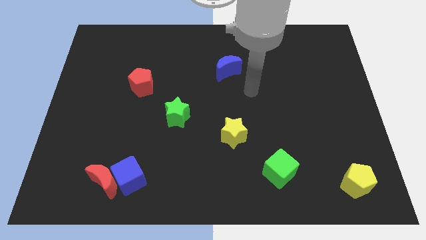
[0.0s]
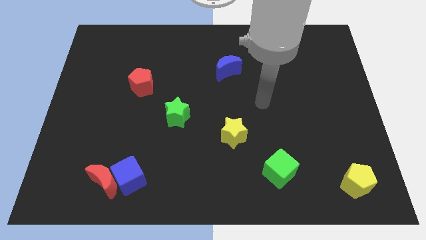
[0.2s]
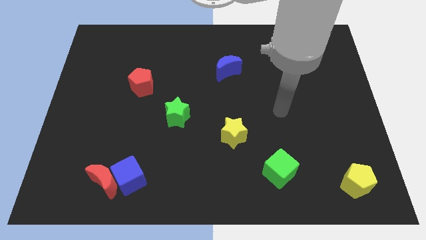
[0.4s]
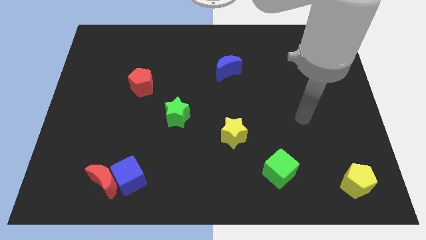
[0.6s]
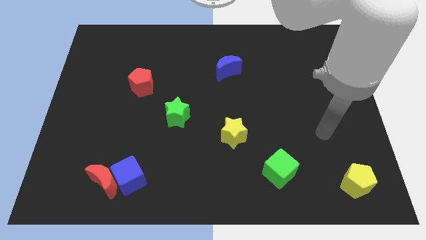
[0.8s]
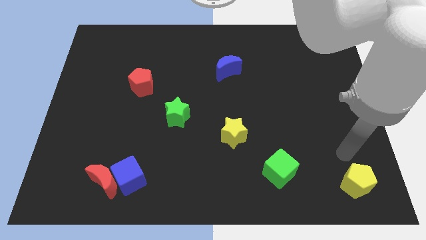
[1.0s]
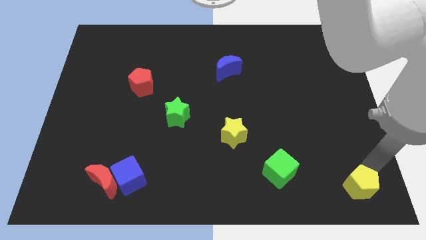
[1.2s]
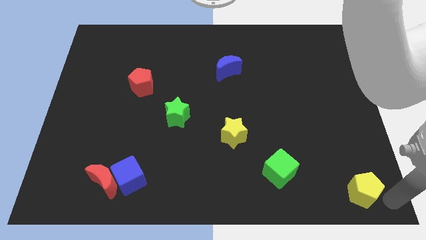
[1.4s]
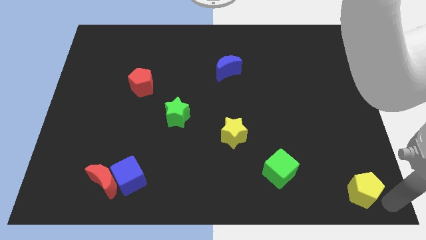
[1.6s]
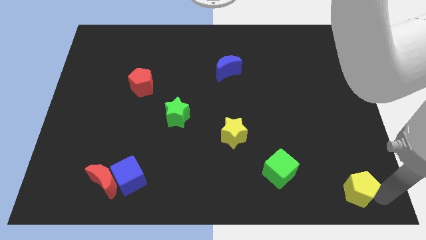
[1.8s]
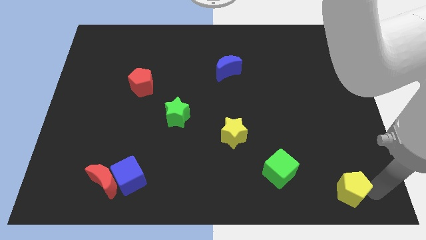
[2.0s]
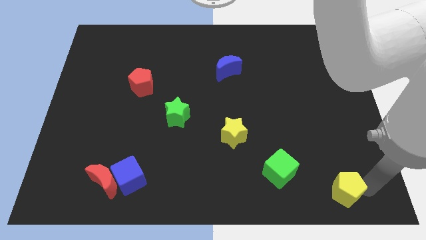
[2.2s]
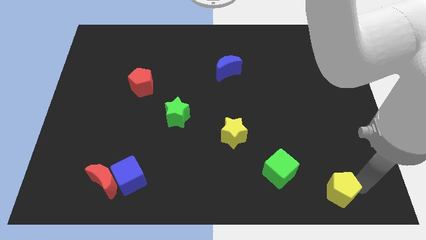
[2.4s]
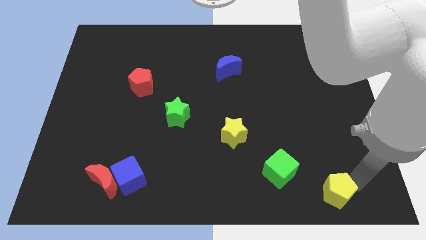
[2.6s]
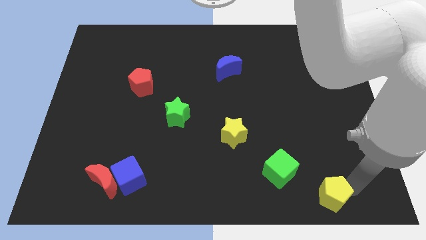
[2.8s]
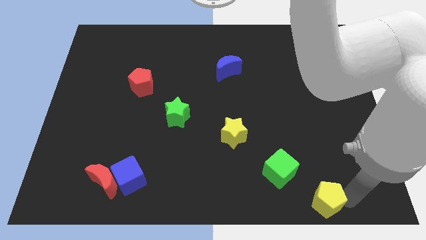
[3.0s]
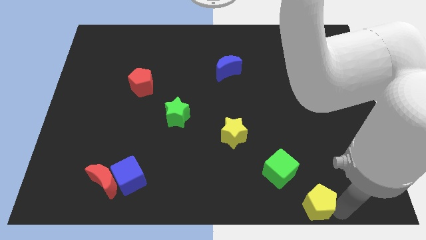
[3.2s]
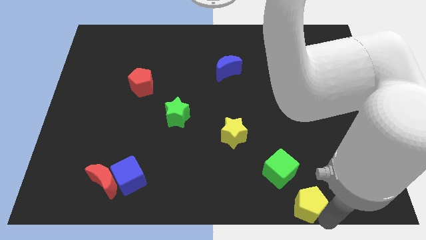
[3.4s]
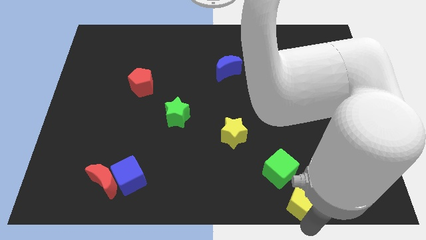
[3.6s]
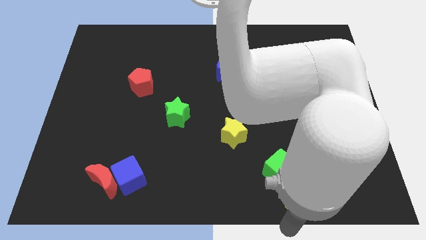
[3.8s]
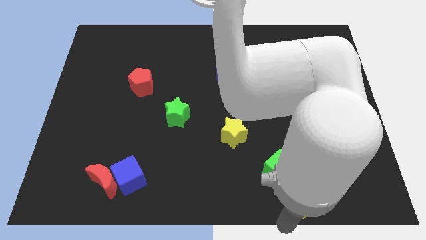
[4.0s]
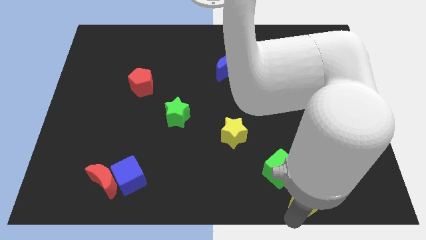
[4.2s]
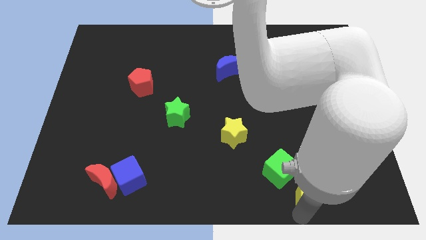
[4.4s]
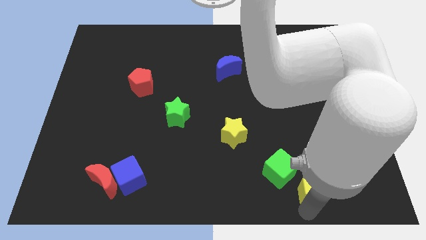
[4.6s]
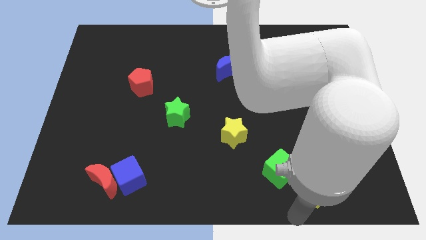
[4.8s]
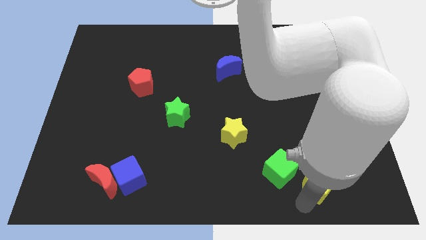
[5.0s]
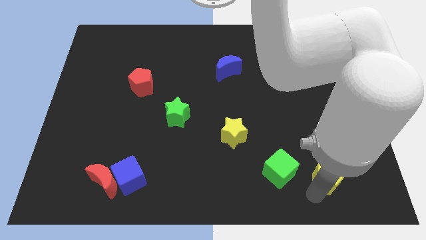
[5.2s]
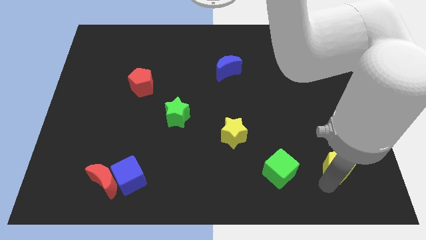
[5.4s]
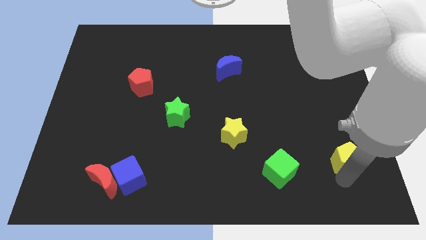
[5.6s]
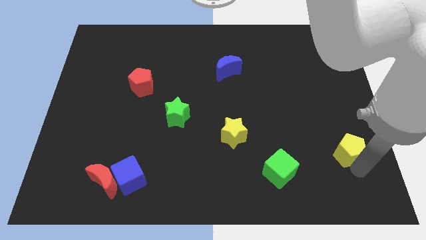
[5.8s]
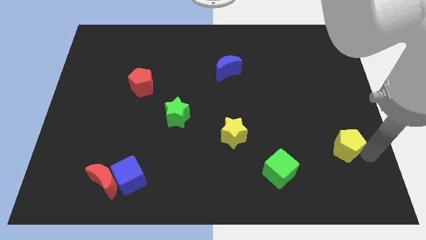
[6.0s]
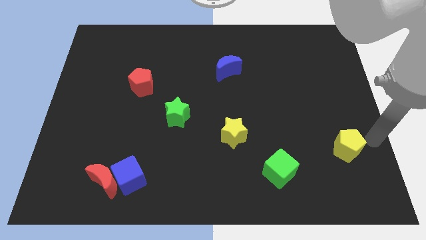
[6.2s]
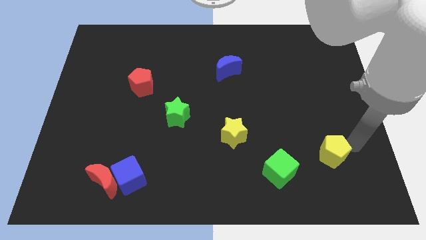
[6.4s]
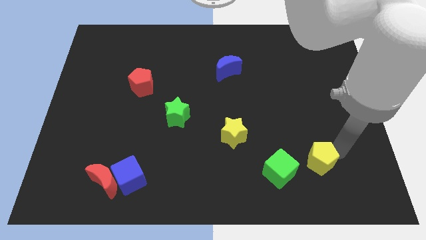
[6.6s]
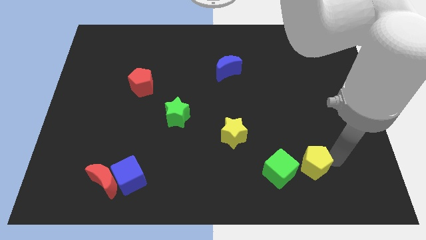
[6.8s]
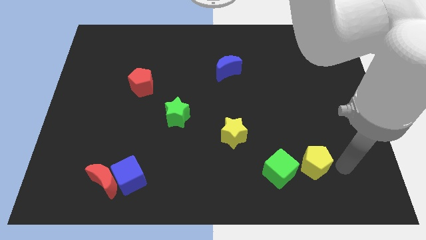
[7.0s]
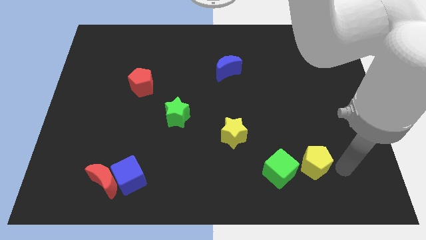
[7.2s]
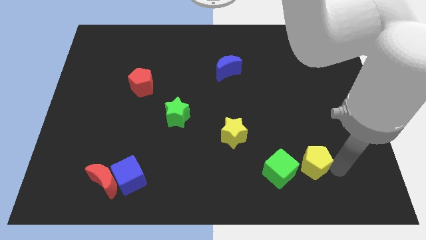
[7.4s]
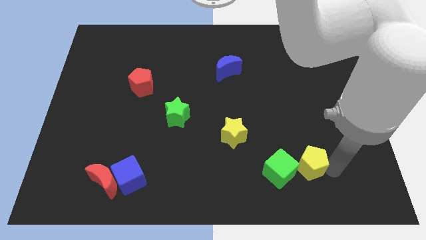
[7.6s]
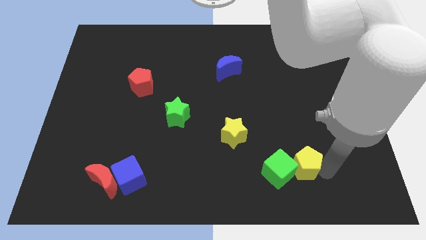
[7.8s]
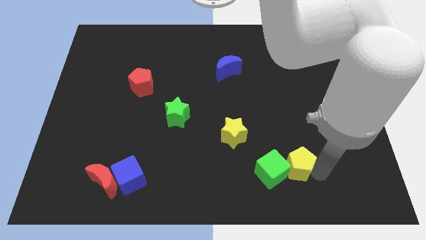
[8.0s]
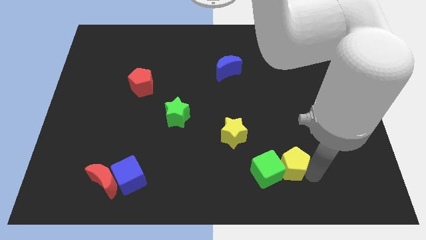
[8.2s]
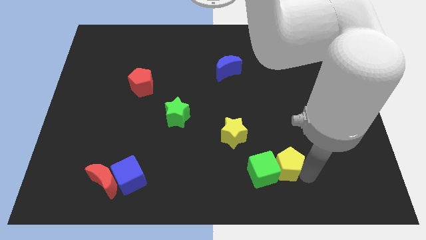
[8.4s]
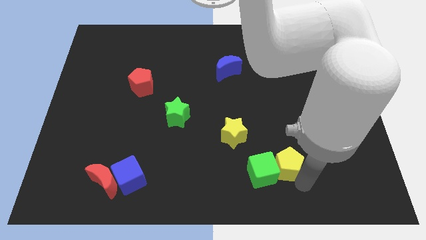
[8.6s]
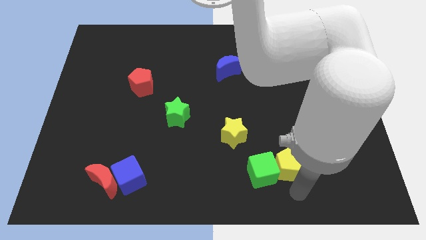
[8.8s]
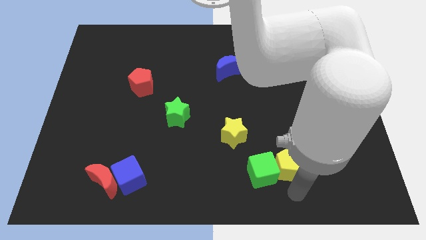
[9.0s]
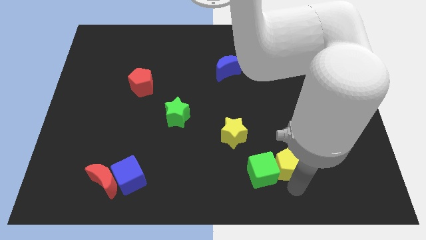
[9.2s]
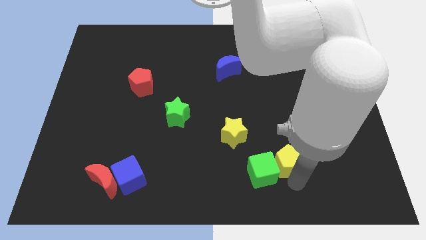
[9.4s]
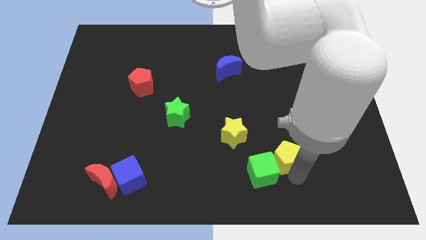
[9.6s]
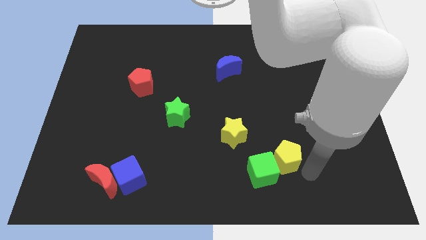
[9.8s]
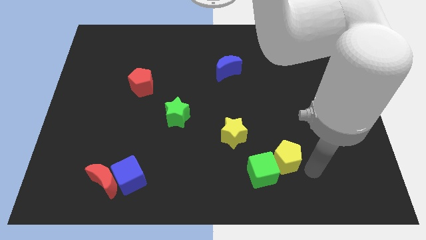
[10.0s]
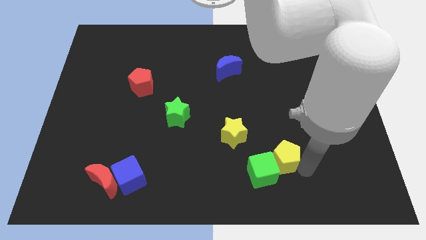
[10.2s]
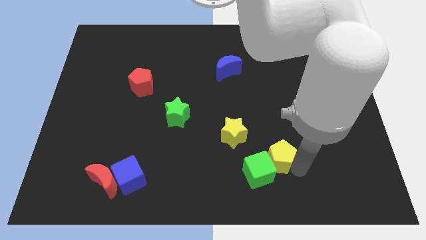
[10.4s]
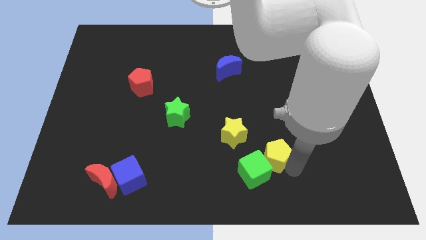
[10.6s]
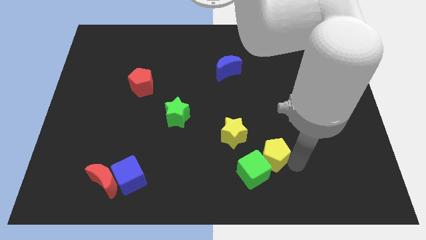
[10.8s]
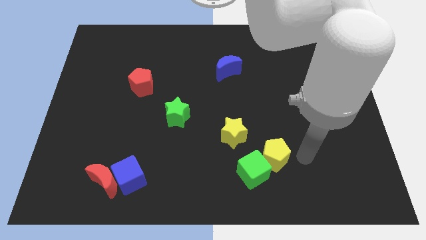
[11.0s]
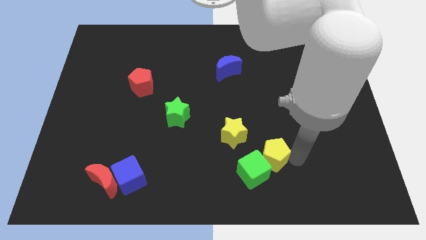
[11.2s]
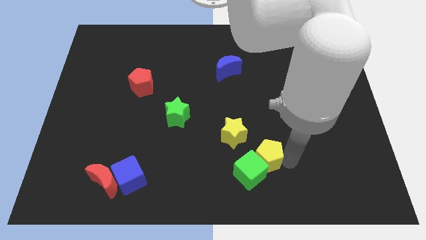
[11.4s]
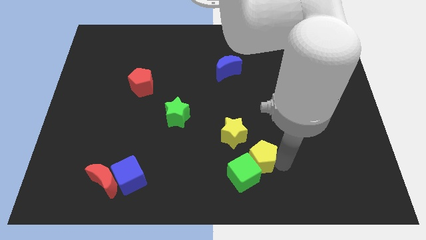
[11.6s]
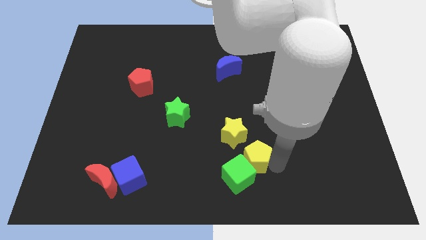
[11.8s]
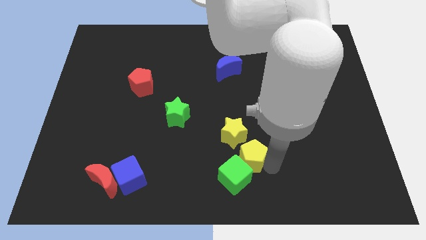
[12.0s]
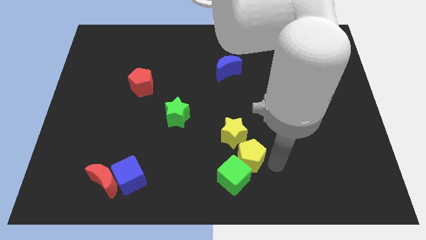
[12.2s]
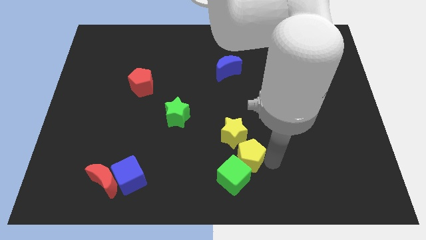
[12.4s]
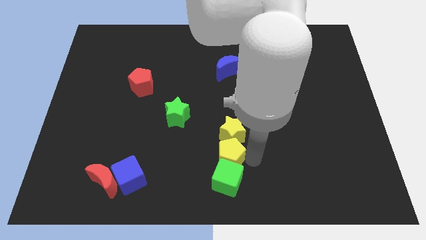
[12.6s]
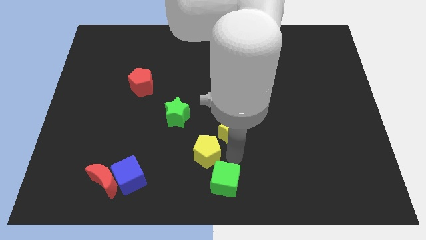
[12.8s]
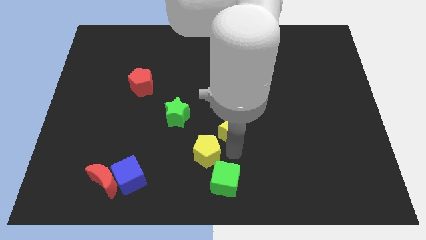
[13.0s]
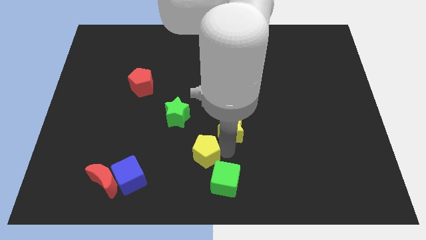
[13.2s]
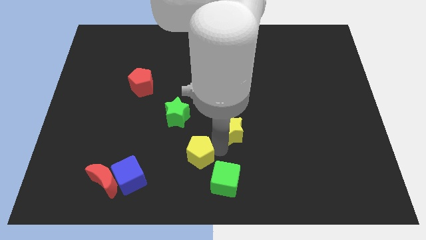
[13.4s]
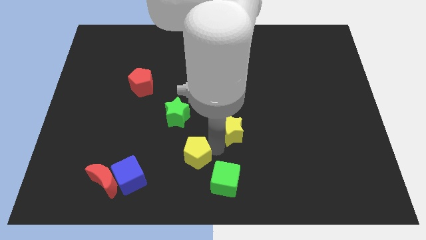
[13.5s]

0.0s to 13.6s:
put the yellow pentagon below the green star

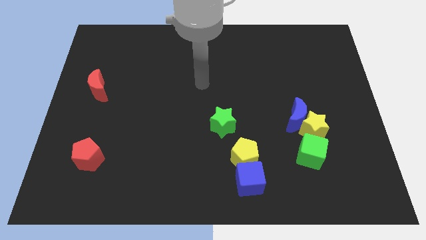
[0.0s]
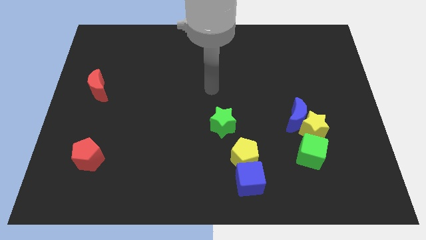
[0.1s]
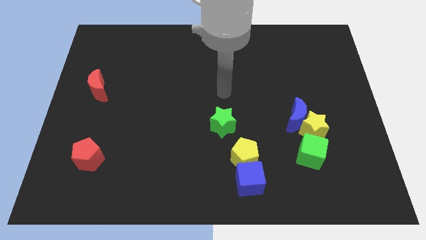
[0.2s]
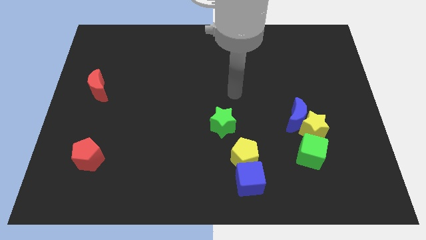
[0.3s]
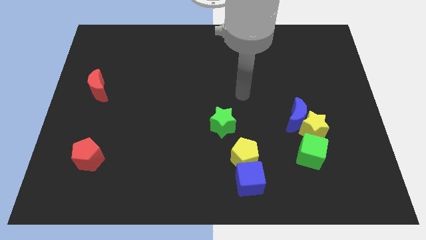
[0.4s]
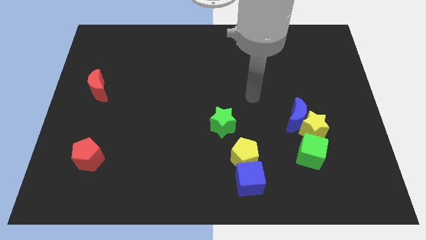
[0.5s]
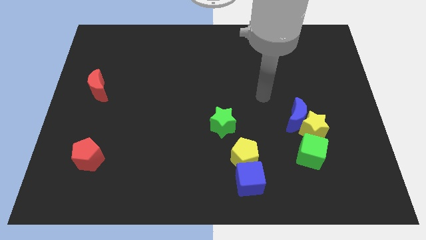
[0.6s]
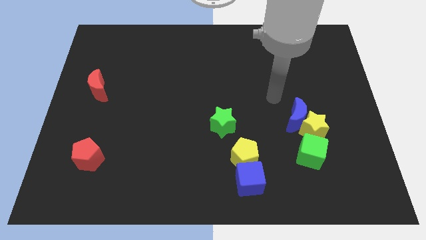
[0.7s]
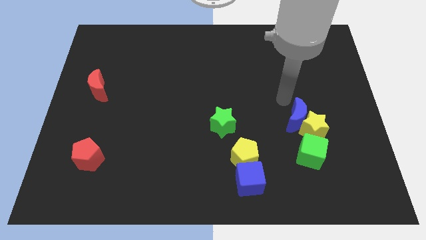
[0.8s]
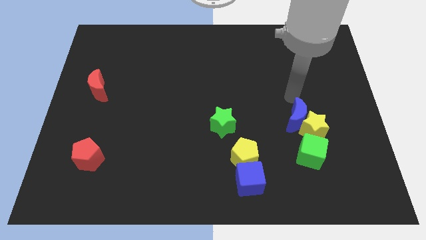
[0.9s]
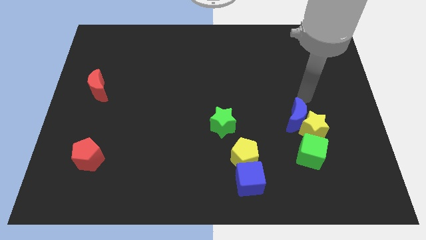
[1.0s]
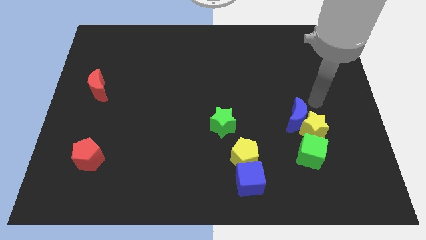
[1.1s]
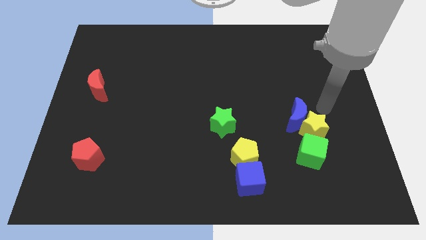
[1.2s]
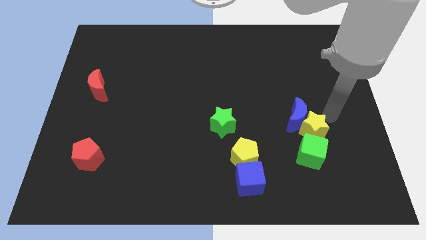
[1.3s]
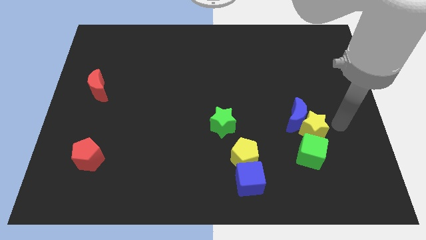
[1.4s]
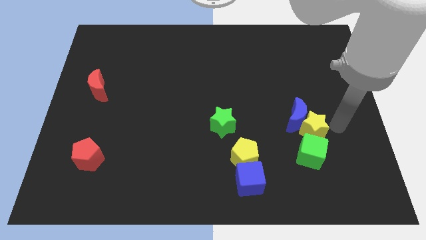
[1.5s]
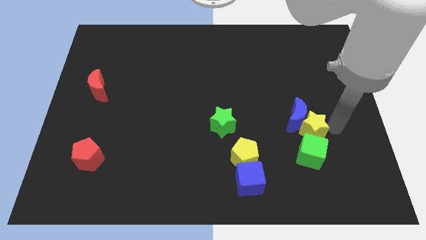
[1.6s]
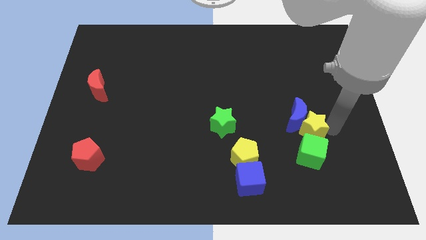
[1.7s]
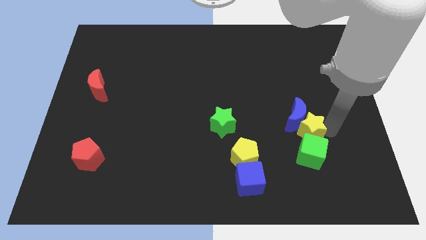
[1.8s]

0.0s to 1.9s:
move the yellow star to the top left of the green cube
